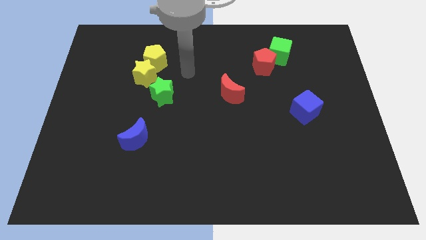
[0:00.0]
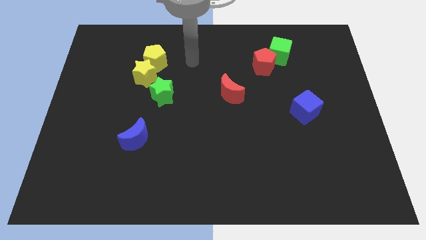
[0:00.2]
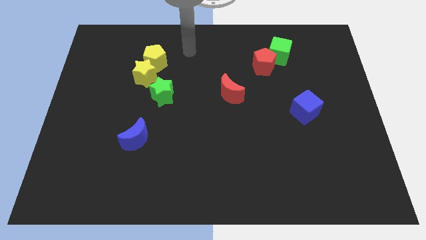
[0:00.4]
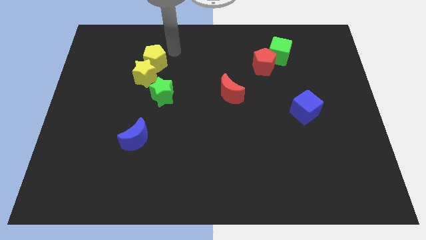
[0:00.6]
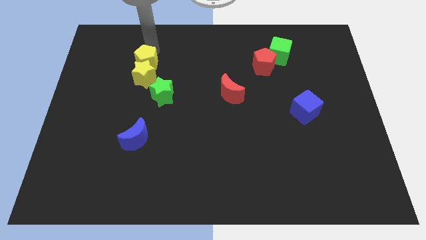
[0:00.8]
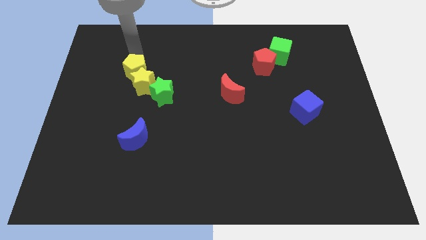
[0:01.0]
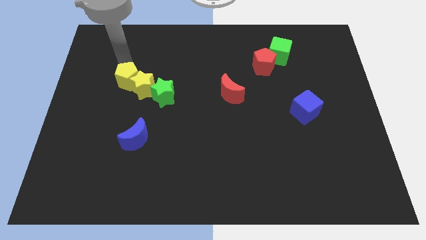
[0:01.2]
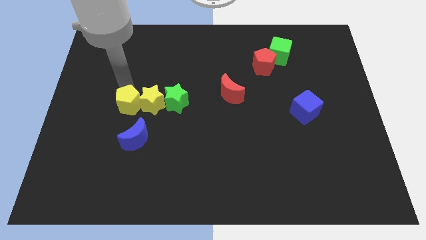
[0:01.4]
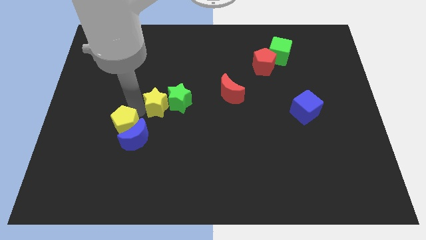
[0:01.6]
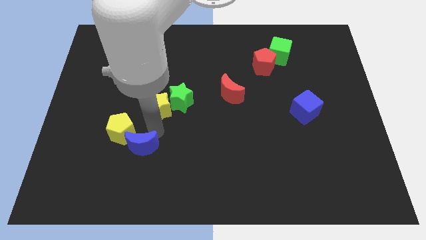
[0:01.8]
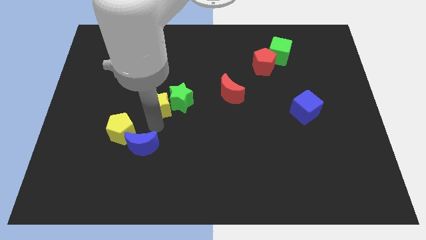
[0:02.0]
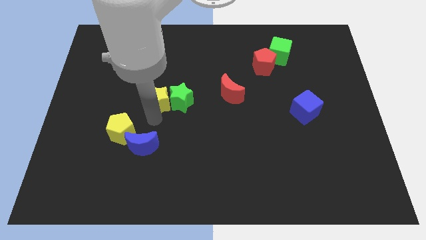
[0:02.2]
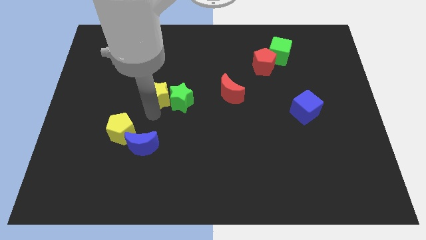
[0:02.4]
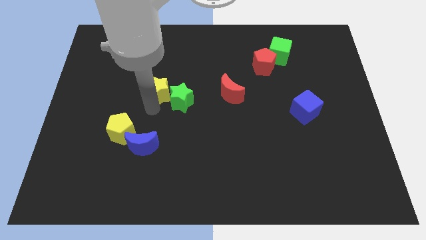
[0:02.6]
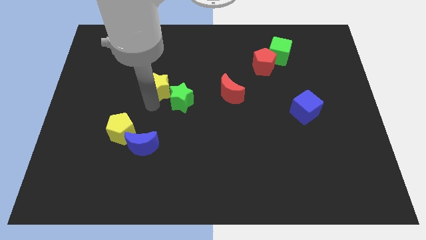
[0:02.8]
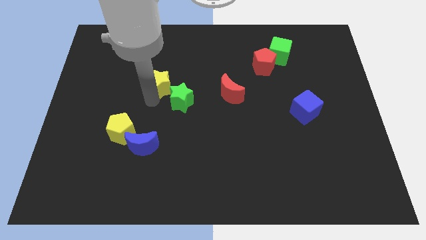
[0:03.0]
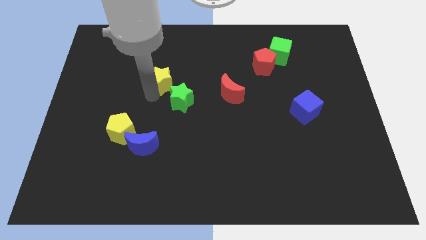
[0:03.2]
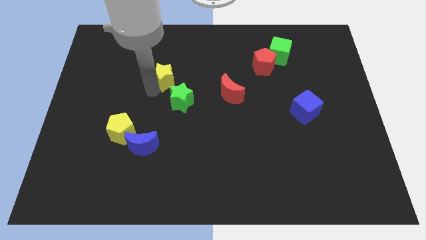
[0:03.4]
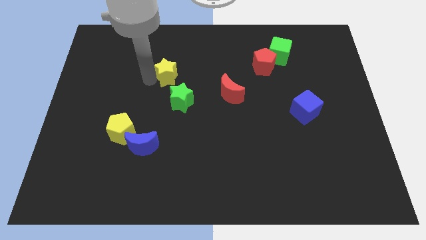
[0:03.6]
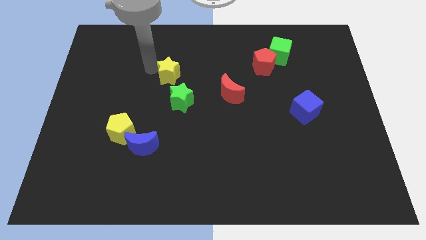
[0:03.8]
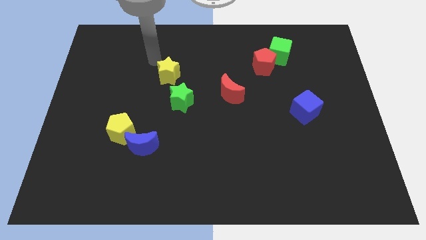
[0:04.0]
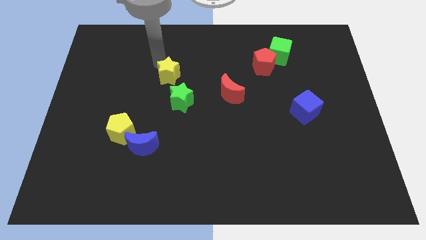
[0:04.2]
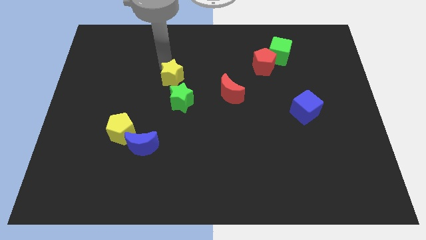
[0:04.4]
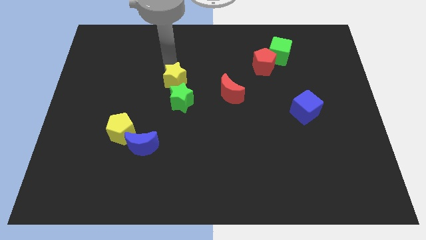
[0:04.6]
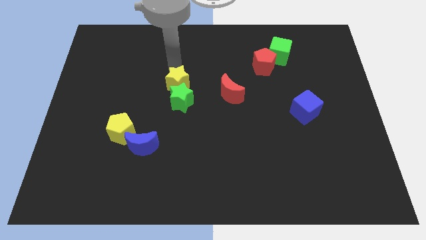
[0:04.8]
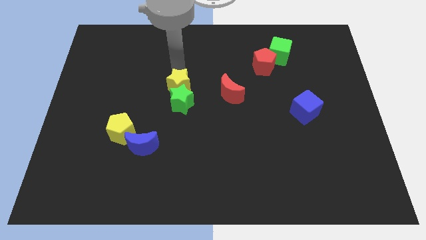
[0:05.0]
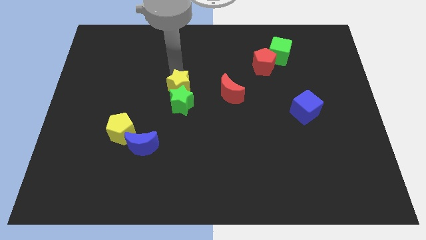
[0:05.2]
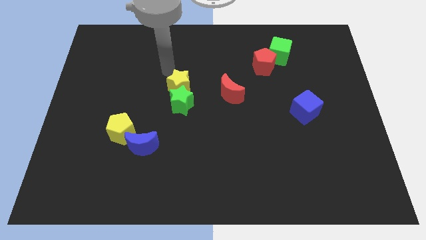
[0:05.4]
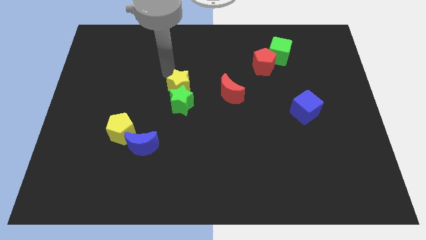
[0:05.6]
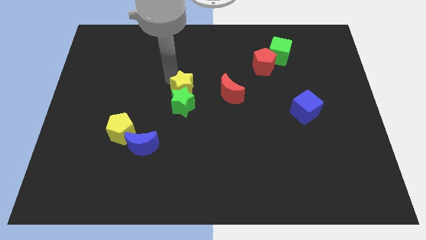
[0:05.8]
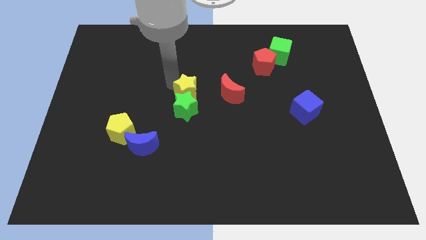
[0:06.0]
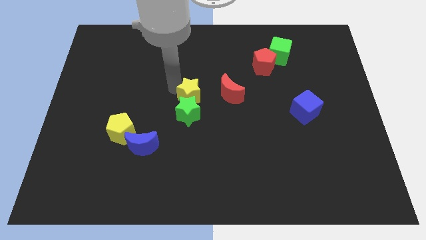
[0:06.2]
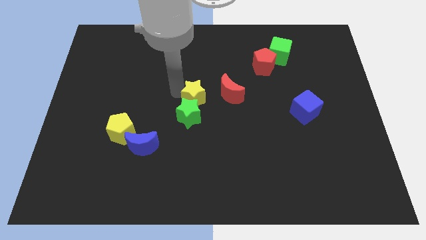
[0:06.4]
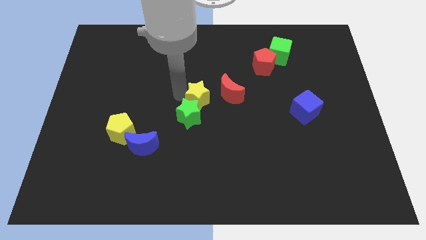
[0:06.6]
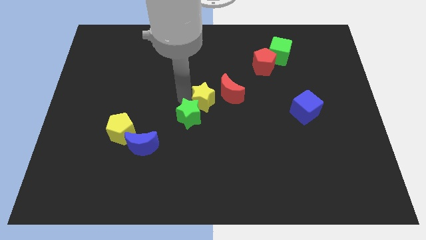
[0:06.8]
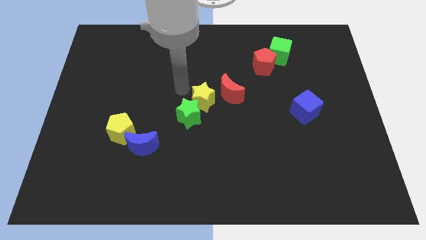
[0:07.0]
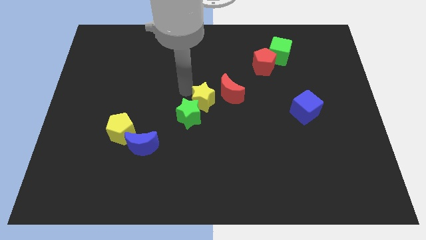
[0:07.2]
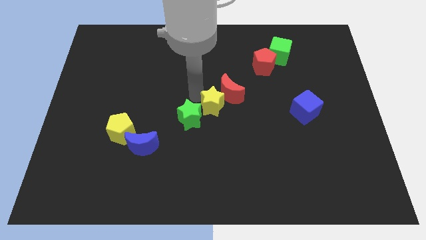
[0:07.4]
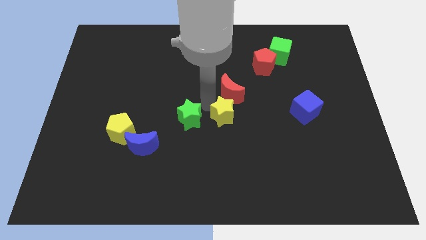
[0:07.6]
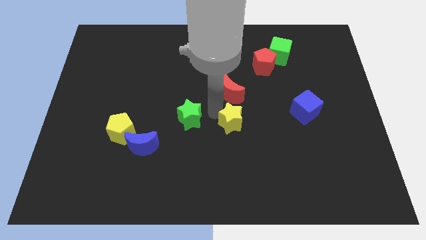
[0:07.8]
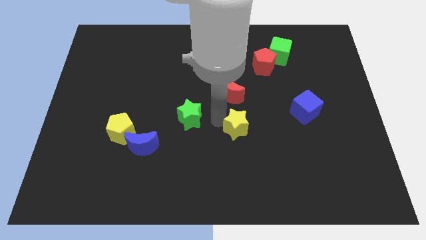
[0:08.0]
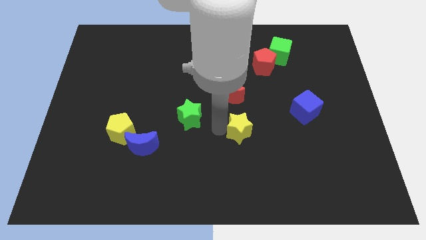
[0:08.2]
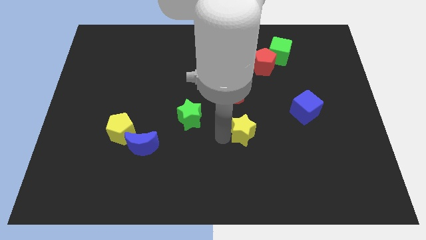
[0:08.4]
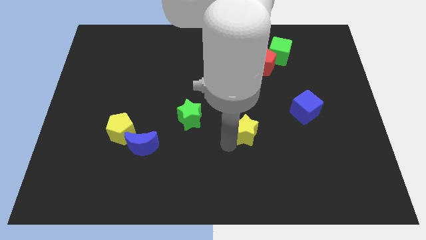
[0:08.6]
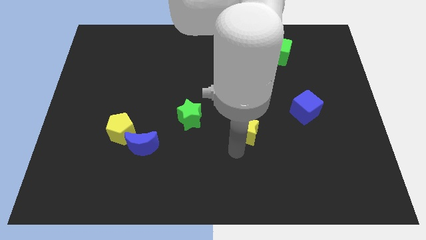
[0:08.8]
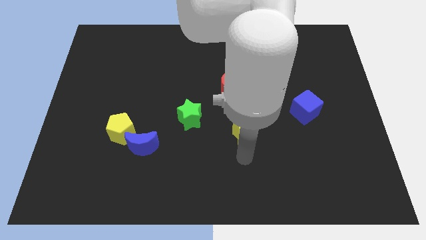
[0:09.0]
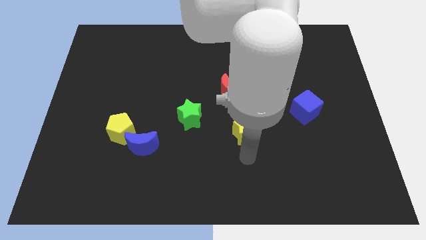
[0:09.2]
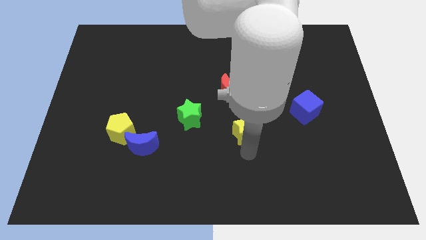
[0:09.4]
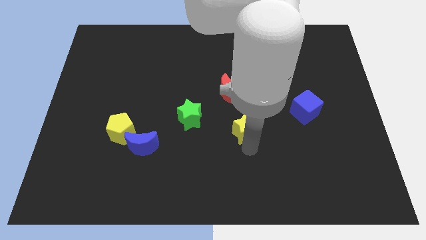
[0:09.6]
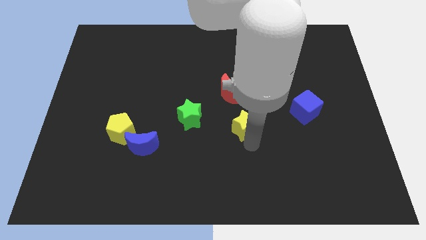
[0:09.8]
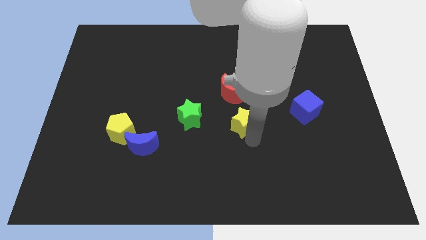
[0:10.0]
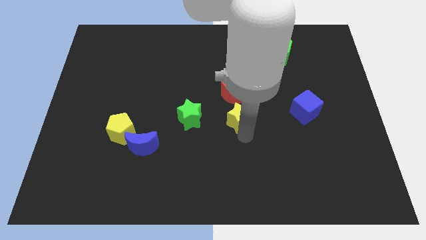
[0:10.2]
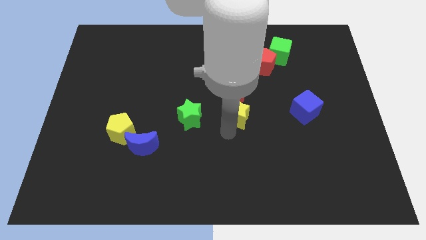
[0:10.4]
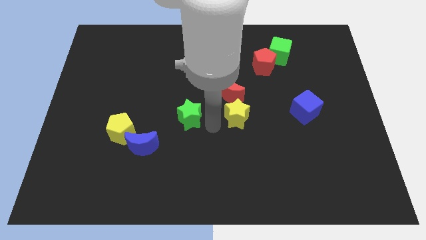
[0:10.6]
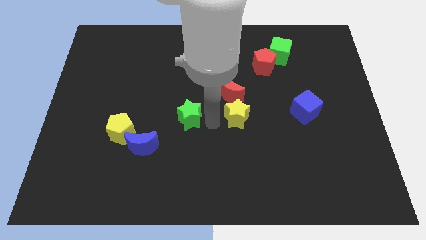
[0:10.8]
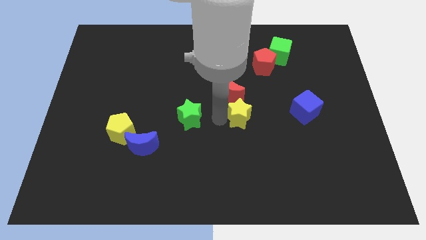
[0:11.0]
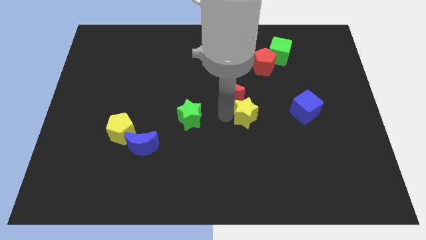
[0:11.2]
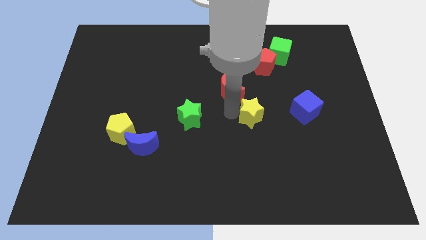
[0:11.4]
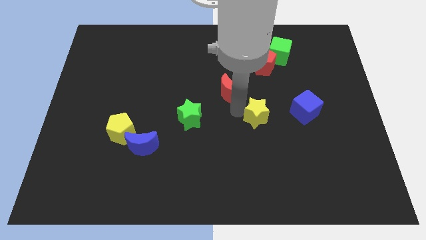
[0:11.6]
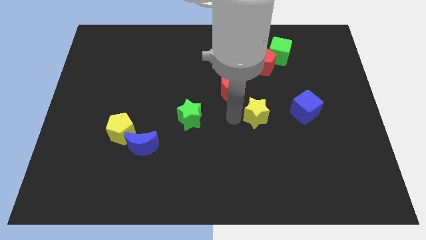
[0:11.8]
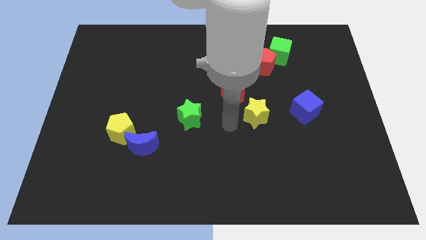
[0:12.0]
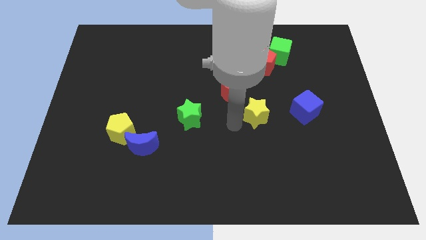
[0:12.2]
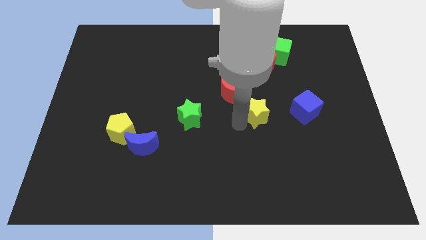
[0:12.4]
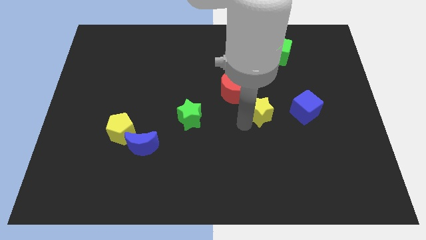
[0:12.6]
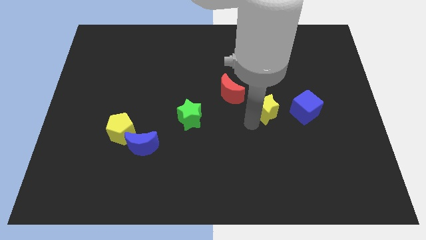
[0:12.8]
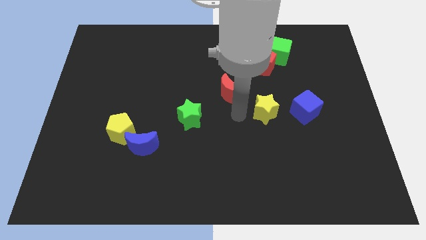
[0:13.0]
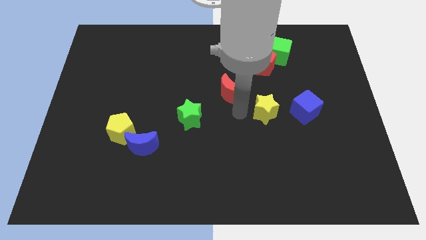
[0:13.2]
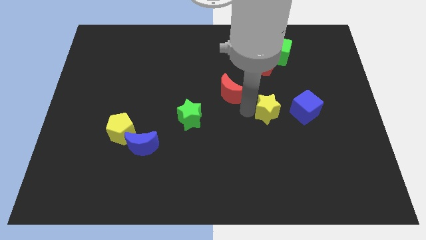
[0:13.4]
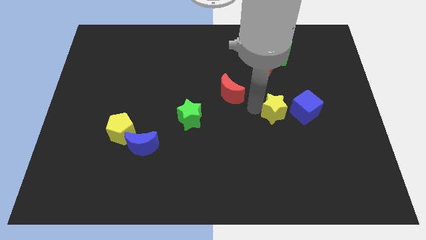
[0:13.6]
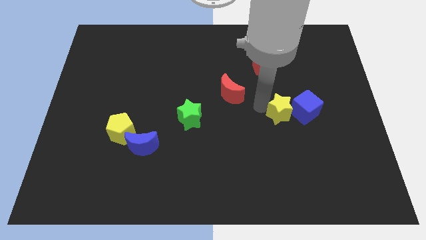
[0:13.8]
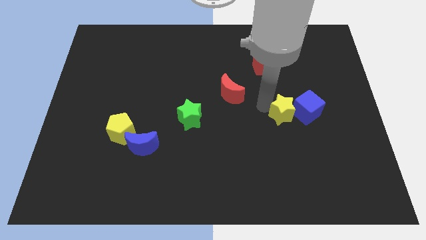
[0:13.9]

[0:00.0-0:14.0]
slide the yellow star close to the blue cube
